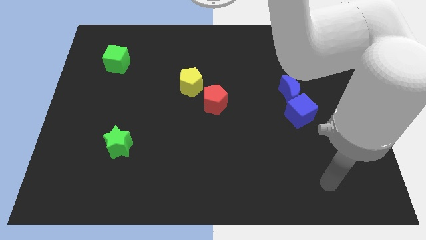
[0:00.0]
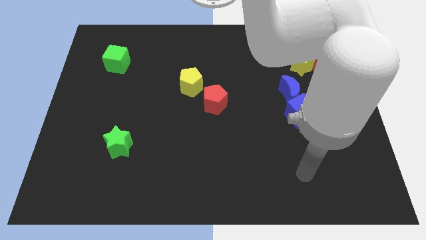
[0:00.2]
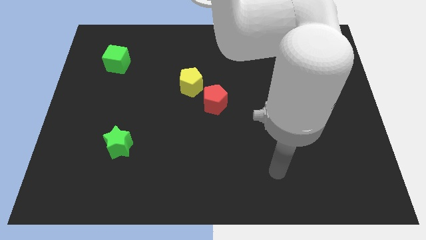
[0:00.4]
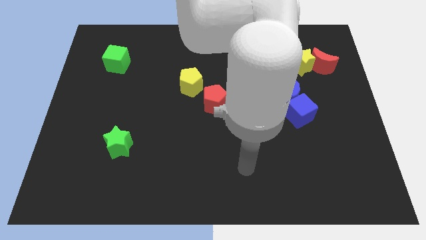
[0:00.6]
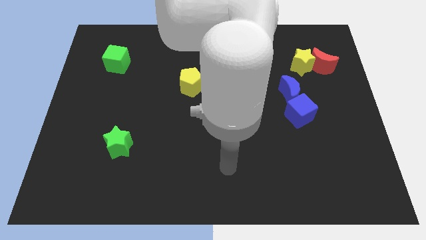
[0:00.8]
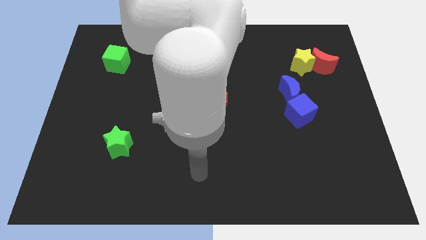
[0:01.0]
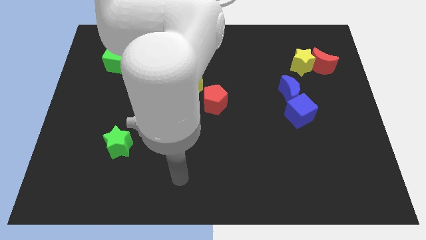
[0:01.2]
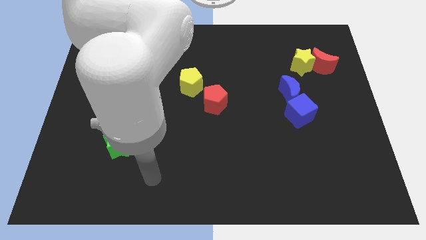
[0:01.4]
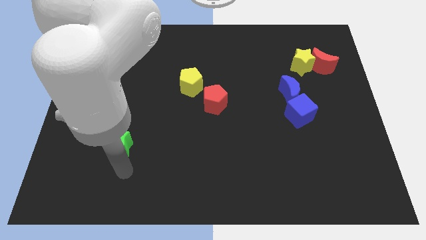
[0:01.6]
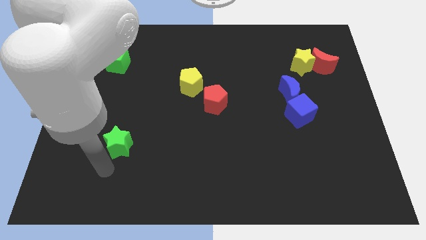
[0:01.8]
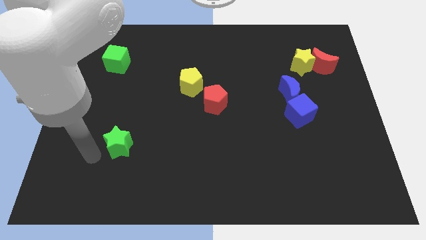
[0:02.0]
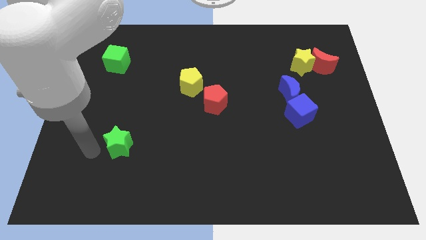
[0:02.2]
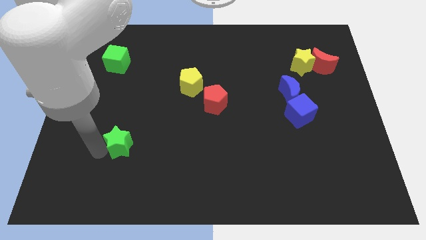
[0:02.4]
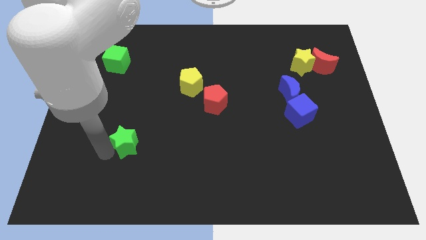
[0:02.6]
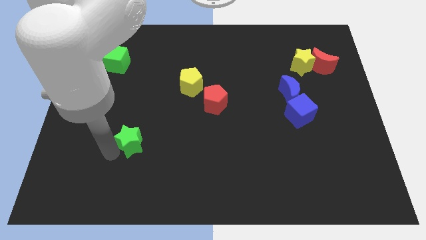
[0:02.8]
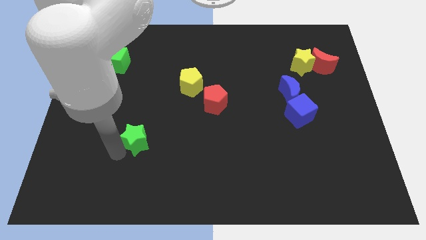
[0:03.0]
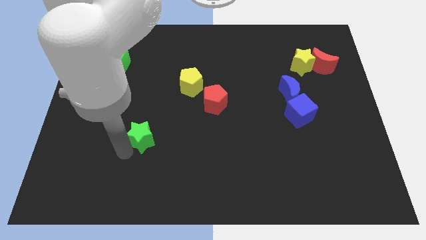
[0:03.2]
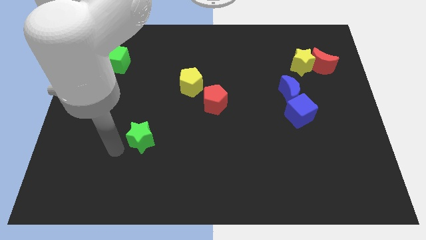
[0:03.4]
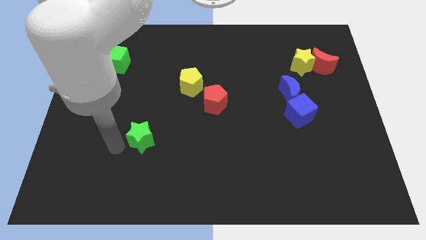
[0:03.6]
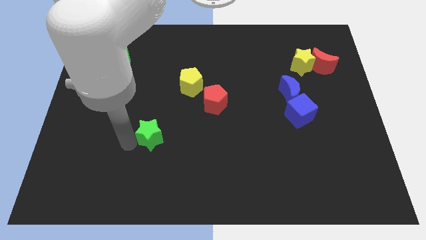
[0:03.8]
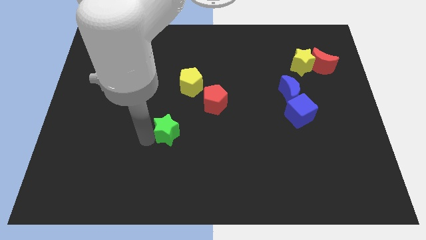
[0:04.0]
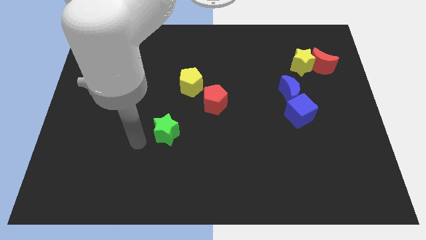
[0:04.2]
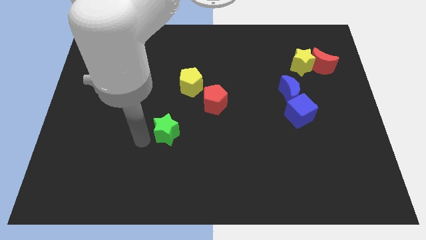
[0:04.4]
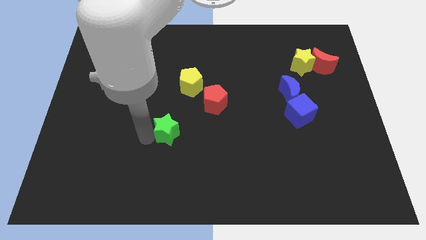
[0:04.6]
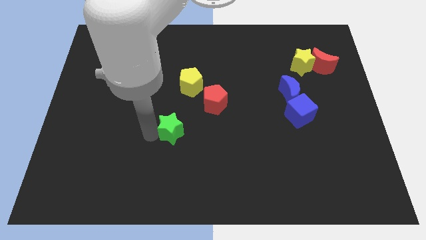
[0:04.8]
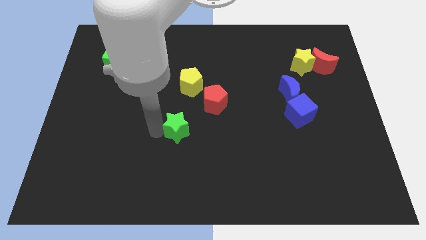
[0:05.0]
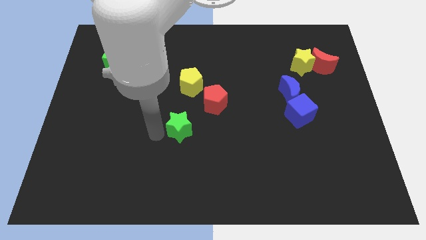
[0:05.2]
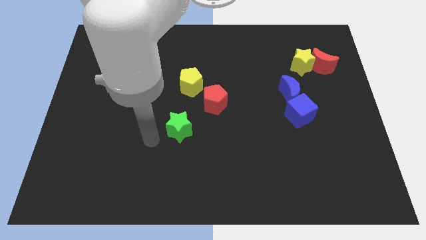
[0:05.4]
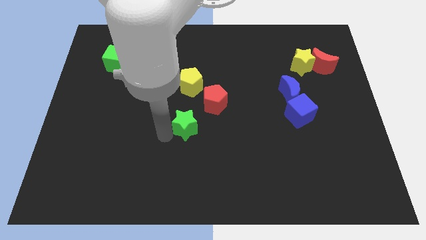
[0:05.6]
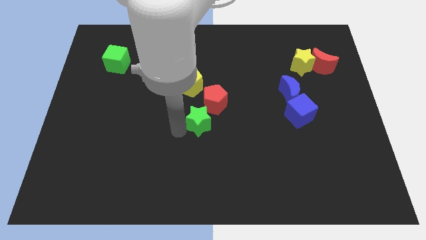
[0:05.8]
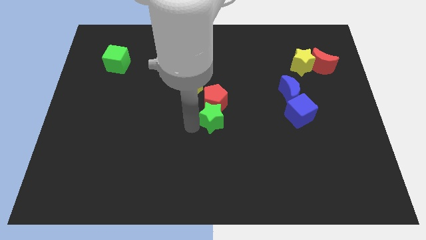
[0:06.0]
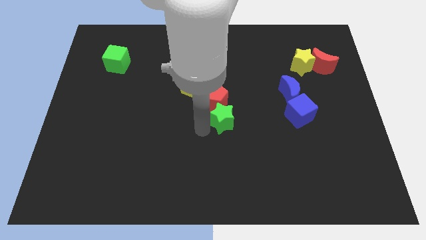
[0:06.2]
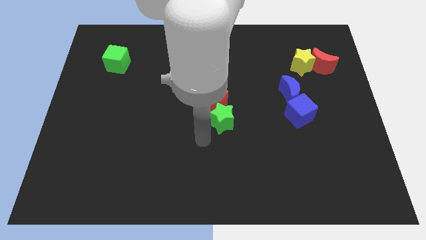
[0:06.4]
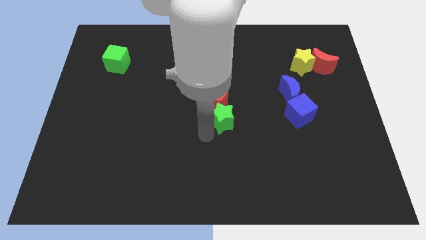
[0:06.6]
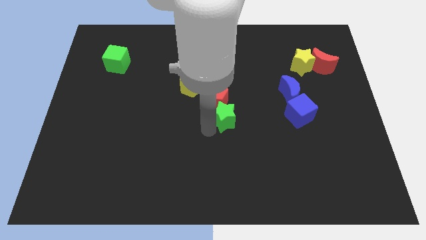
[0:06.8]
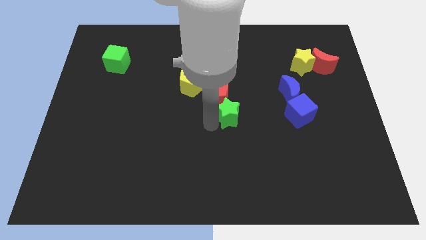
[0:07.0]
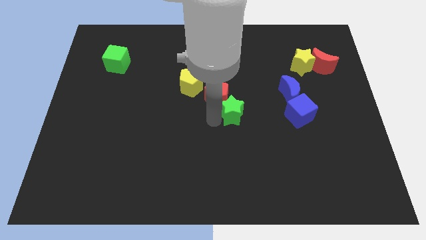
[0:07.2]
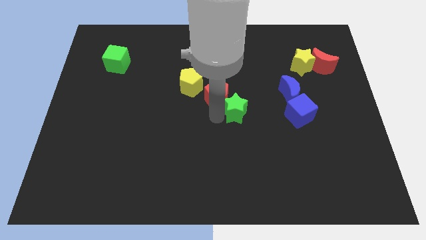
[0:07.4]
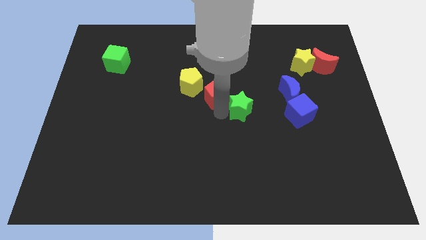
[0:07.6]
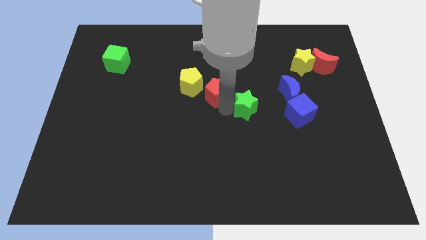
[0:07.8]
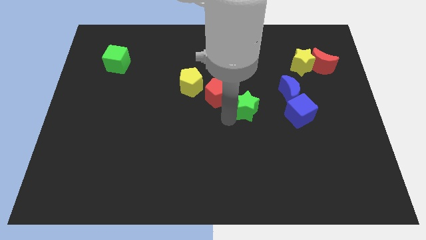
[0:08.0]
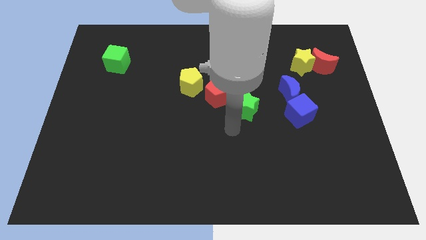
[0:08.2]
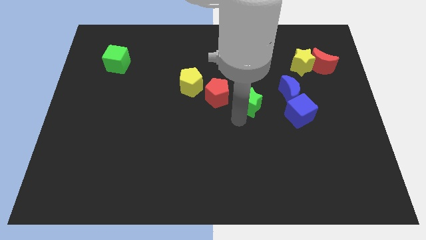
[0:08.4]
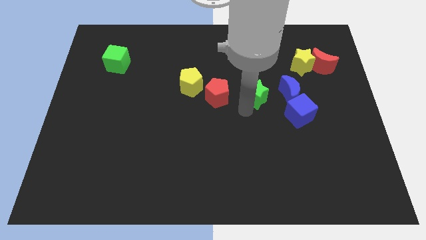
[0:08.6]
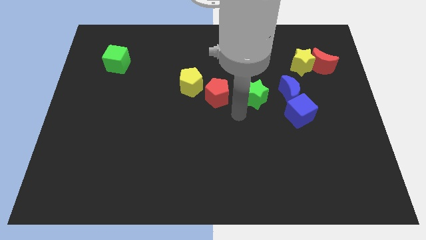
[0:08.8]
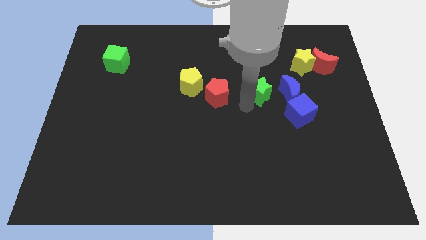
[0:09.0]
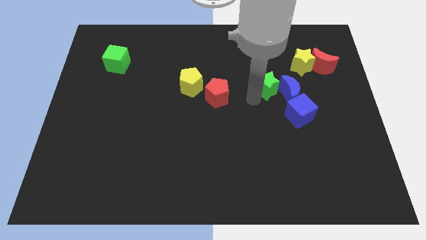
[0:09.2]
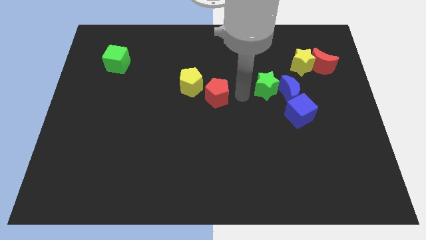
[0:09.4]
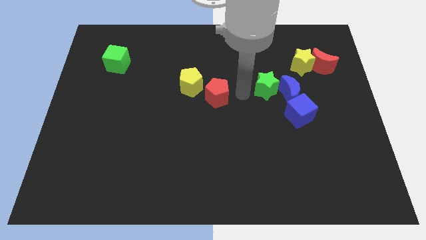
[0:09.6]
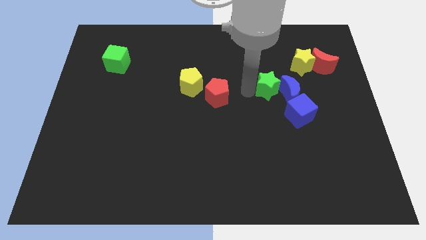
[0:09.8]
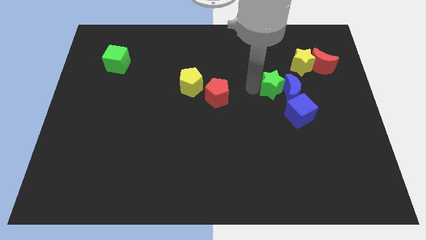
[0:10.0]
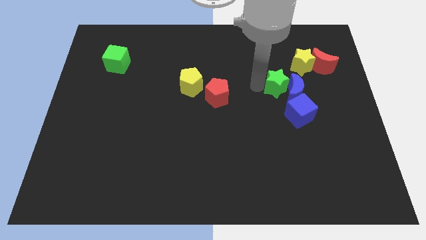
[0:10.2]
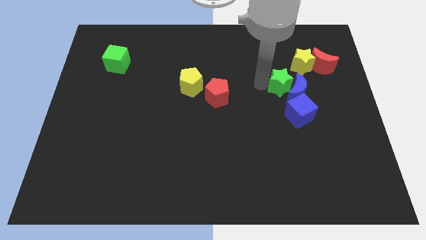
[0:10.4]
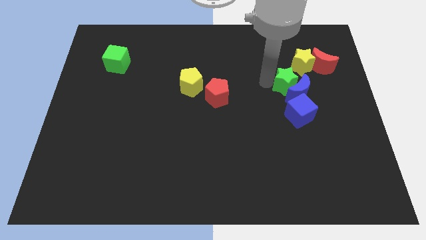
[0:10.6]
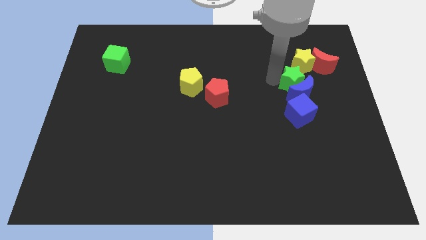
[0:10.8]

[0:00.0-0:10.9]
push the green star diagonally up and to the right of the blue moon

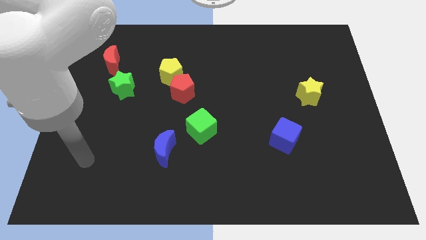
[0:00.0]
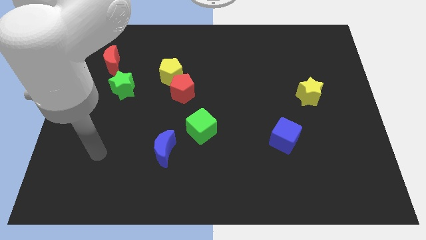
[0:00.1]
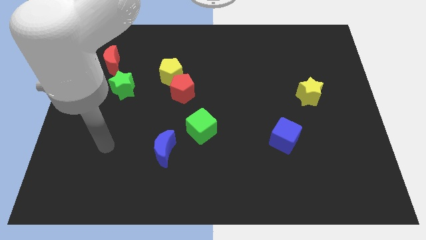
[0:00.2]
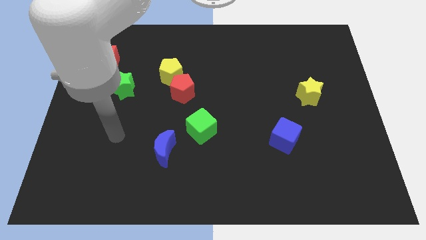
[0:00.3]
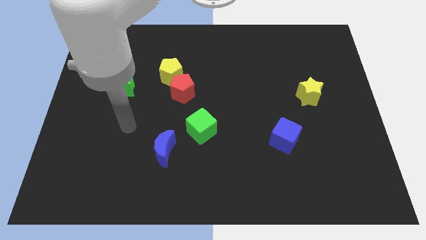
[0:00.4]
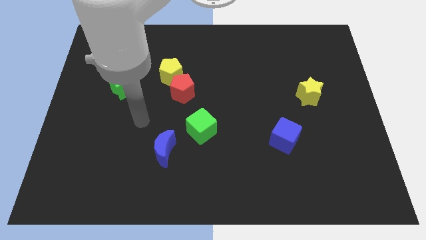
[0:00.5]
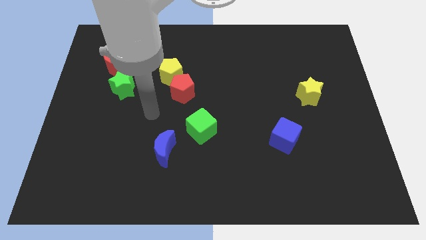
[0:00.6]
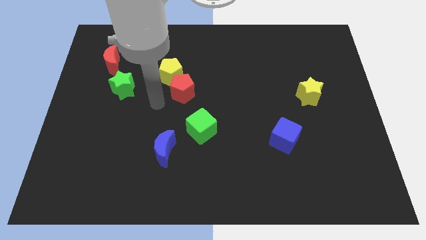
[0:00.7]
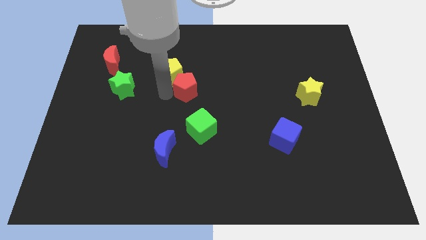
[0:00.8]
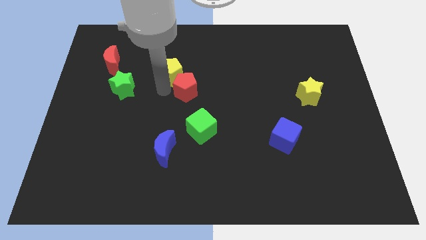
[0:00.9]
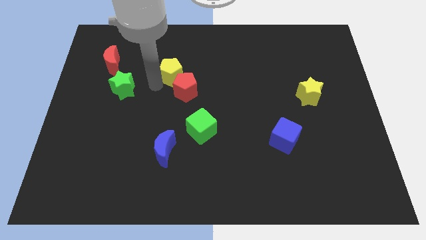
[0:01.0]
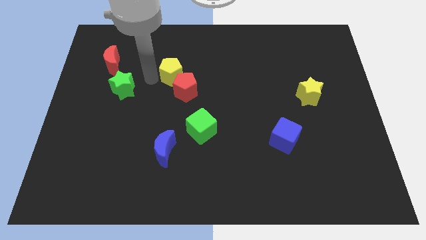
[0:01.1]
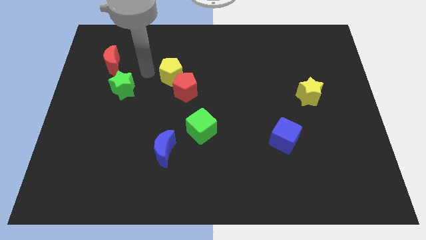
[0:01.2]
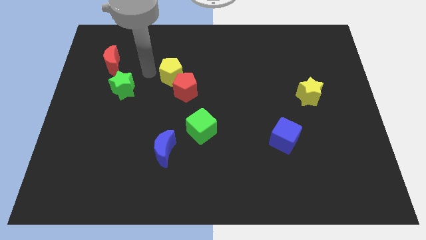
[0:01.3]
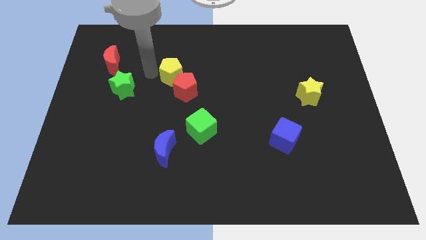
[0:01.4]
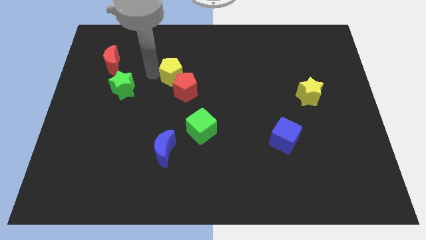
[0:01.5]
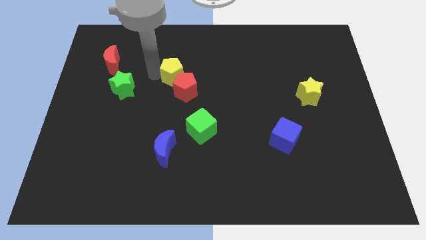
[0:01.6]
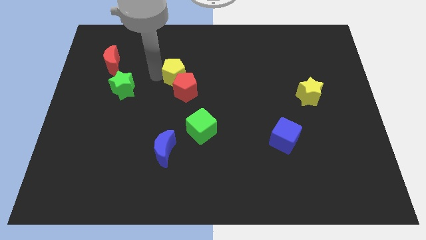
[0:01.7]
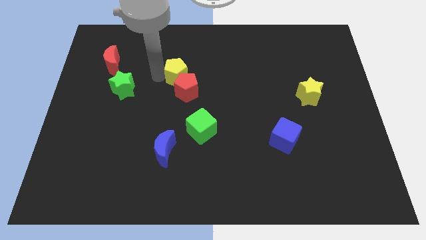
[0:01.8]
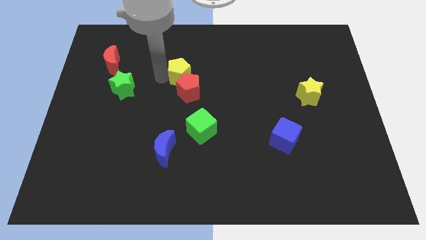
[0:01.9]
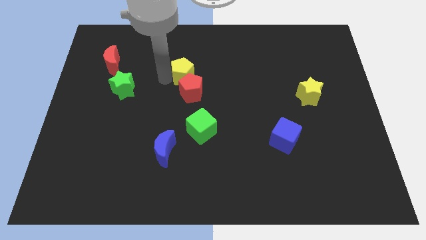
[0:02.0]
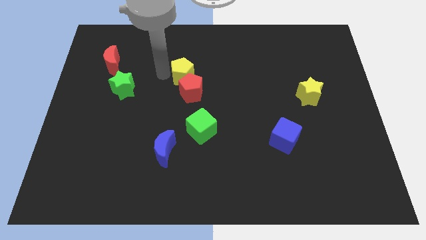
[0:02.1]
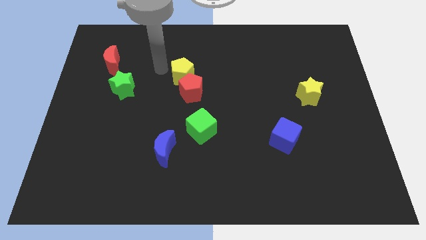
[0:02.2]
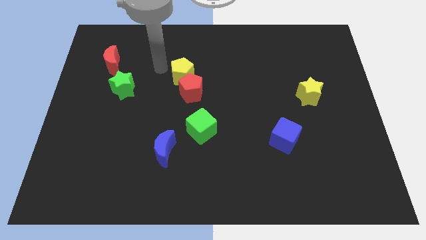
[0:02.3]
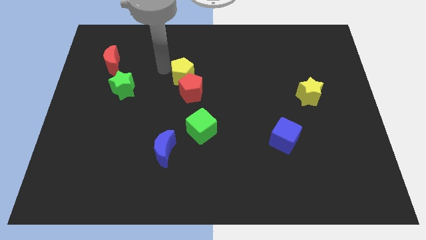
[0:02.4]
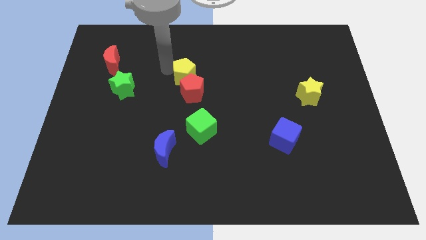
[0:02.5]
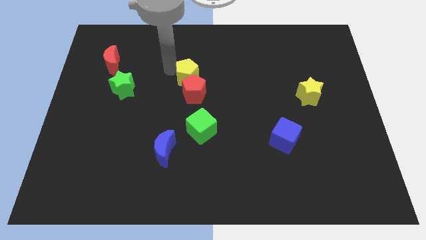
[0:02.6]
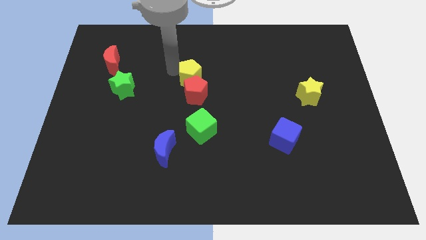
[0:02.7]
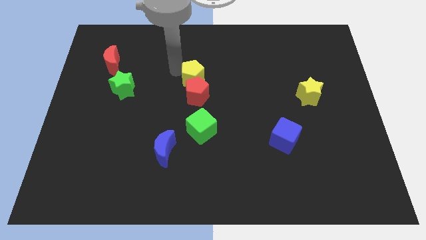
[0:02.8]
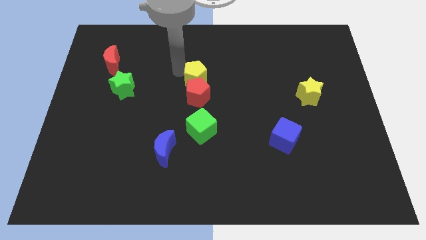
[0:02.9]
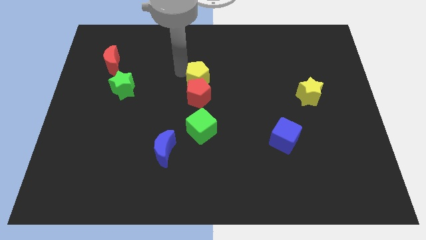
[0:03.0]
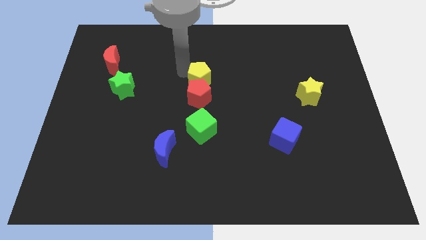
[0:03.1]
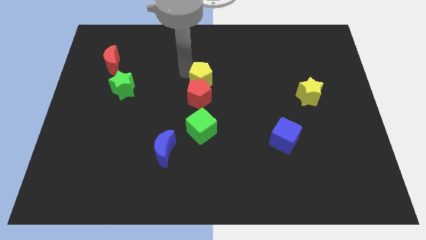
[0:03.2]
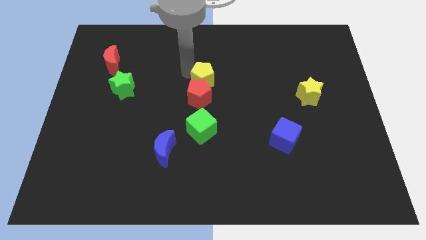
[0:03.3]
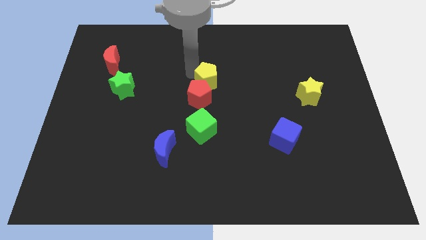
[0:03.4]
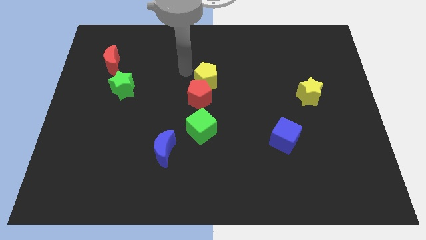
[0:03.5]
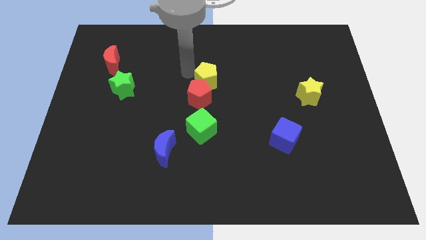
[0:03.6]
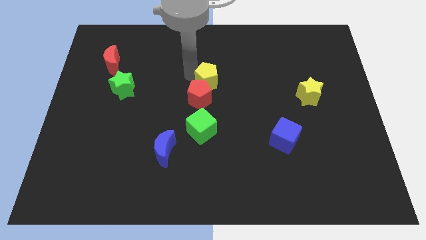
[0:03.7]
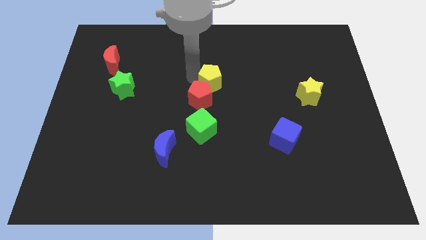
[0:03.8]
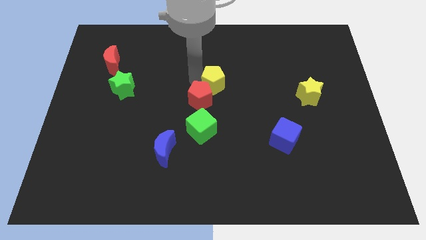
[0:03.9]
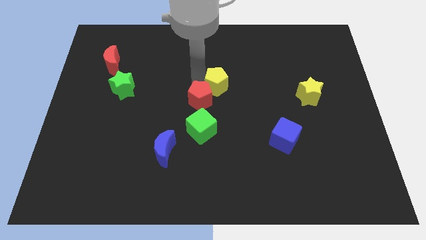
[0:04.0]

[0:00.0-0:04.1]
move the yellow pentagon just right of the red pentagon
